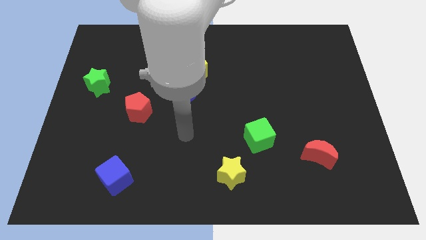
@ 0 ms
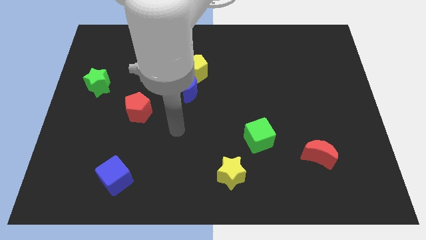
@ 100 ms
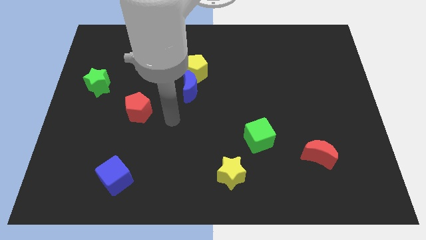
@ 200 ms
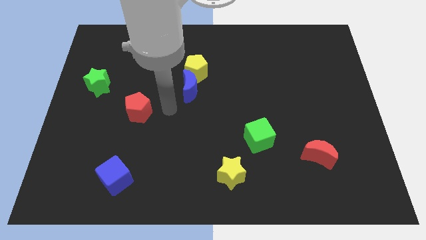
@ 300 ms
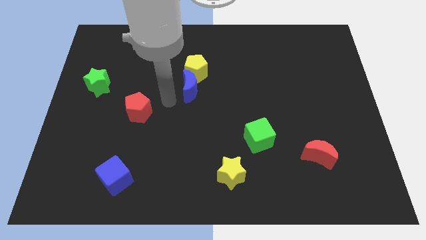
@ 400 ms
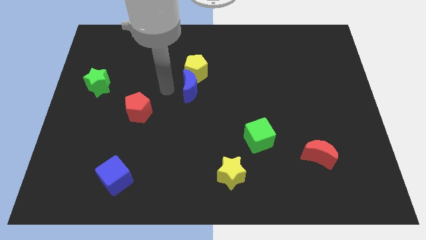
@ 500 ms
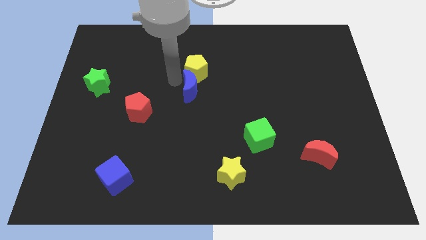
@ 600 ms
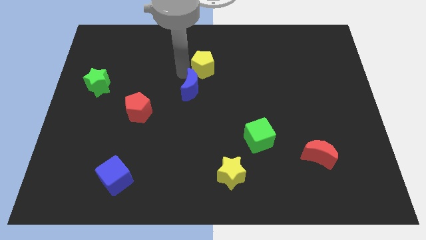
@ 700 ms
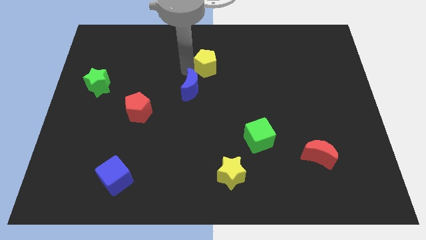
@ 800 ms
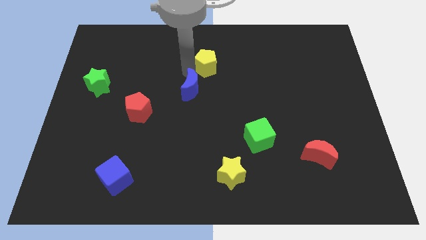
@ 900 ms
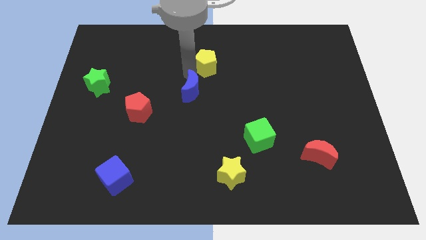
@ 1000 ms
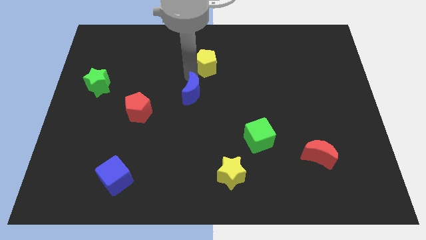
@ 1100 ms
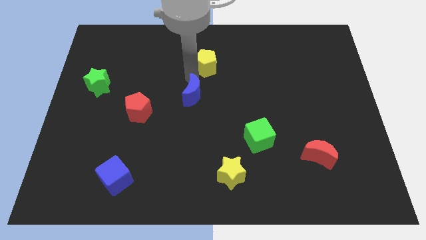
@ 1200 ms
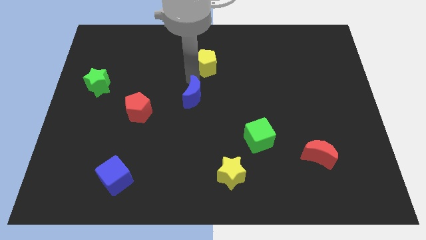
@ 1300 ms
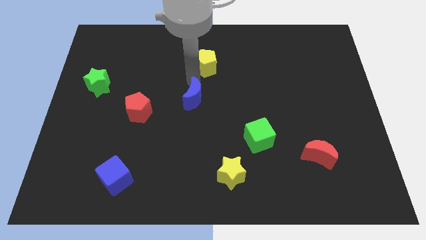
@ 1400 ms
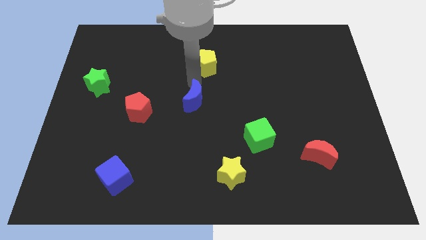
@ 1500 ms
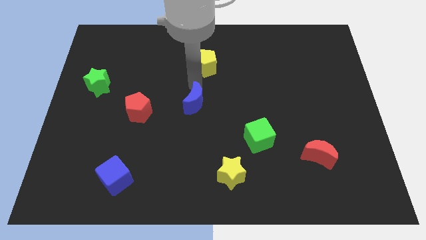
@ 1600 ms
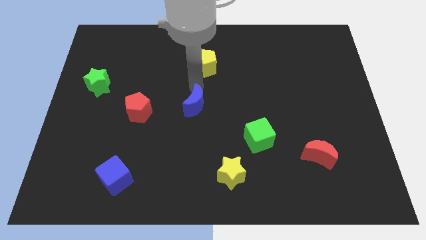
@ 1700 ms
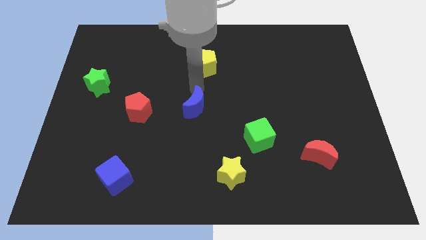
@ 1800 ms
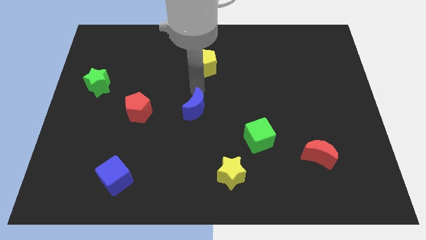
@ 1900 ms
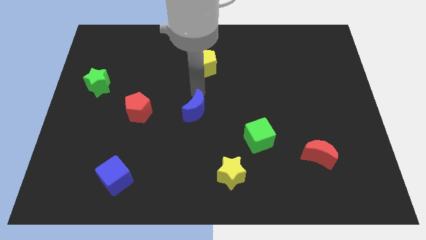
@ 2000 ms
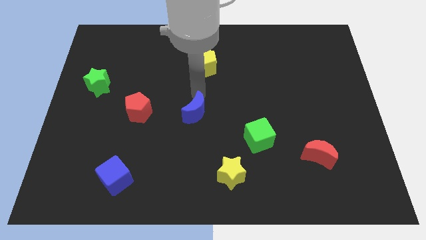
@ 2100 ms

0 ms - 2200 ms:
move the blue moon down a little

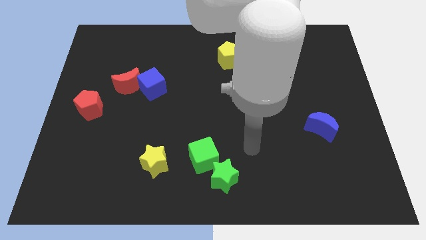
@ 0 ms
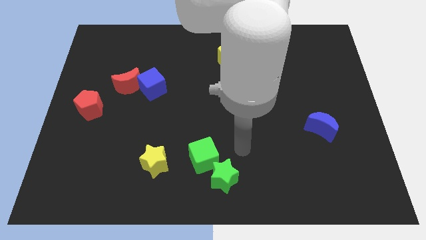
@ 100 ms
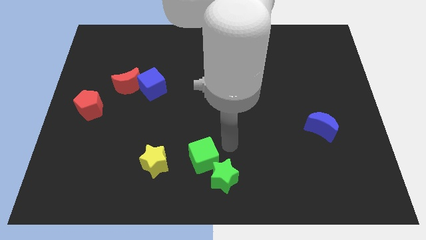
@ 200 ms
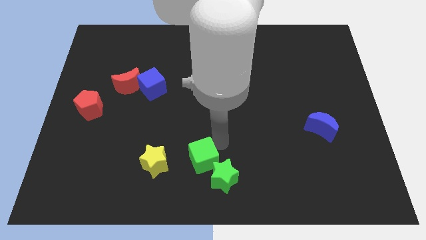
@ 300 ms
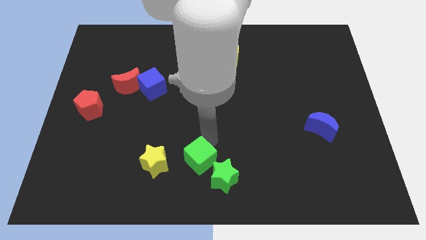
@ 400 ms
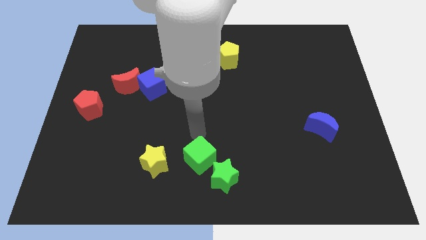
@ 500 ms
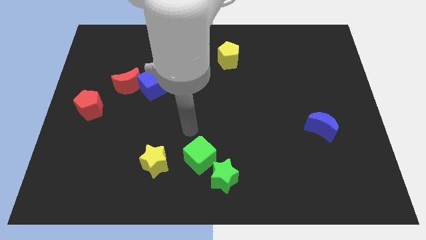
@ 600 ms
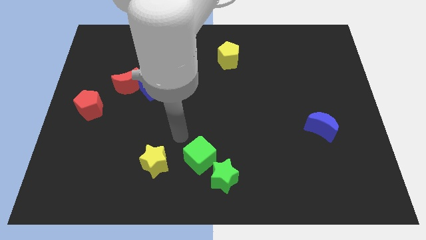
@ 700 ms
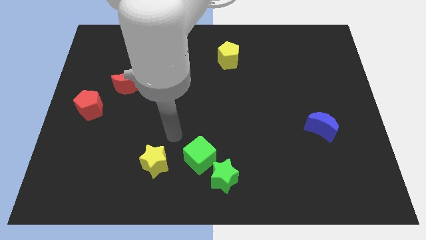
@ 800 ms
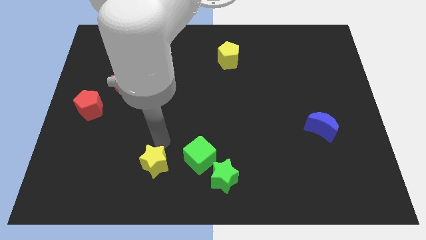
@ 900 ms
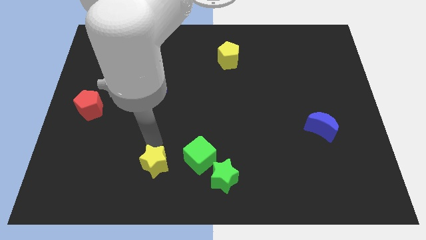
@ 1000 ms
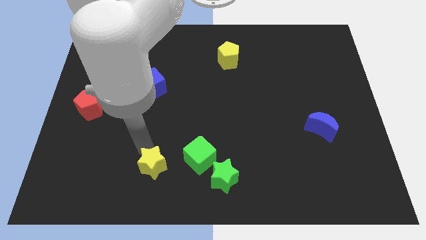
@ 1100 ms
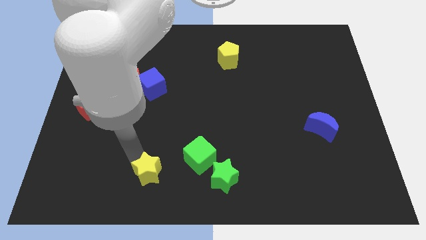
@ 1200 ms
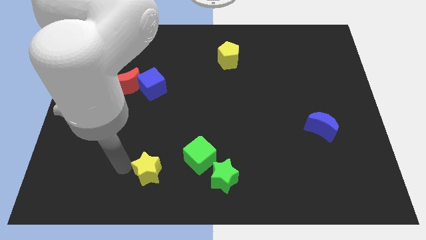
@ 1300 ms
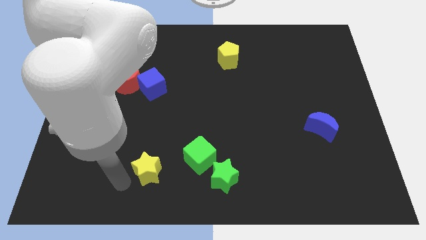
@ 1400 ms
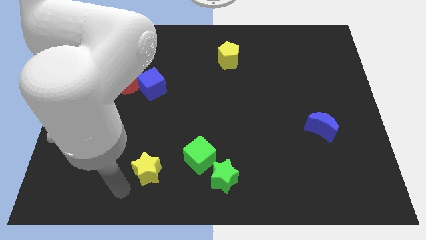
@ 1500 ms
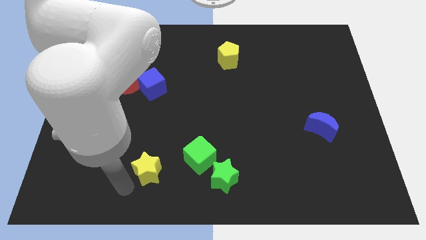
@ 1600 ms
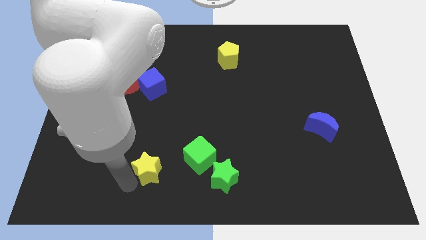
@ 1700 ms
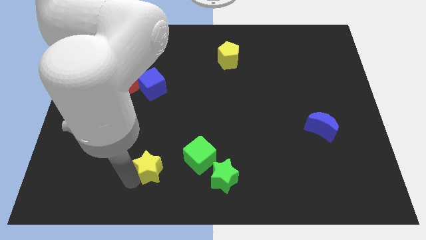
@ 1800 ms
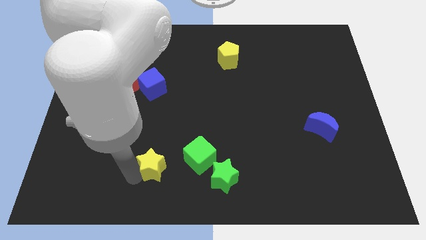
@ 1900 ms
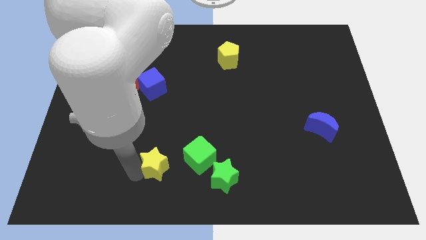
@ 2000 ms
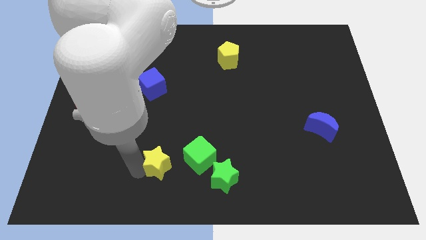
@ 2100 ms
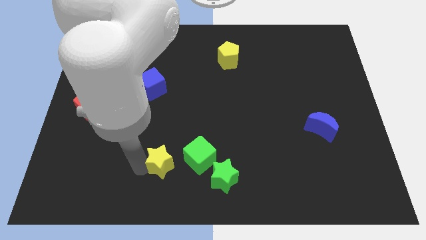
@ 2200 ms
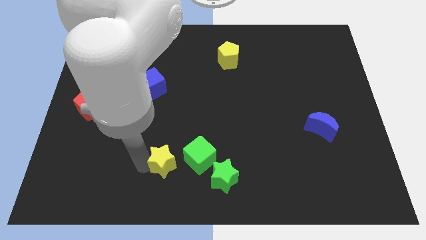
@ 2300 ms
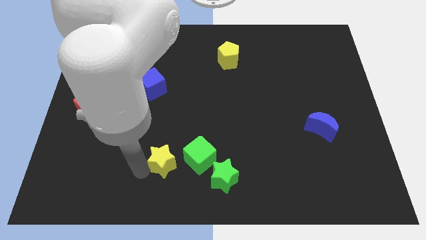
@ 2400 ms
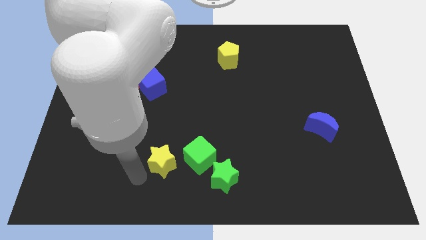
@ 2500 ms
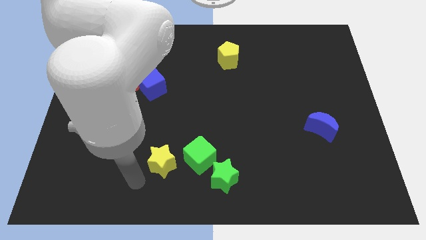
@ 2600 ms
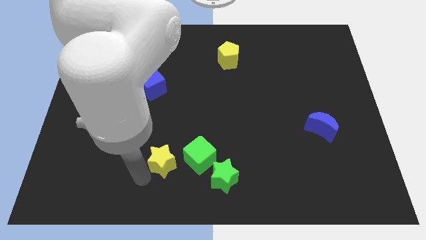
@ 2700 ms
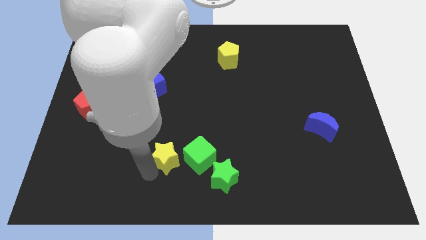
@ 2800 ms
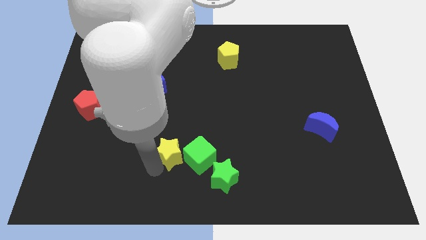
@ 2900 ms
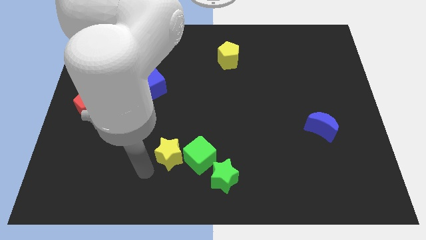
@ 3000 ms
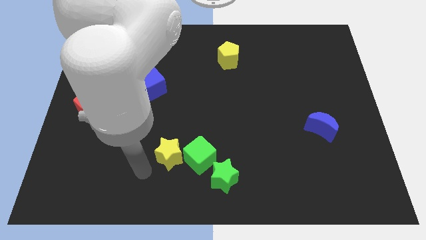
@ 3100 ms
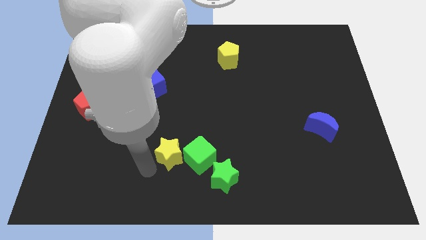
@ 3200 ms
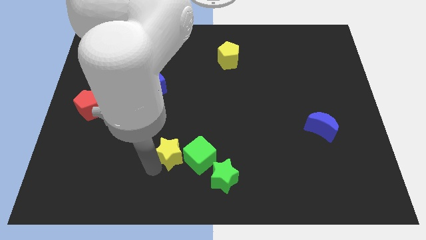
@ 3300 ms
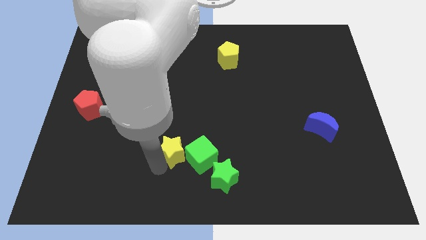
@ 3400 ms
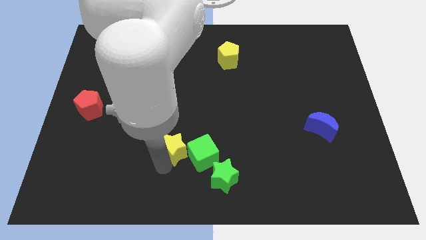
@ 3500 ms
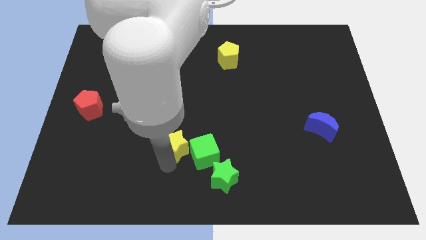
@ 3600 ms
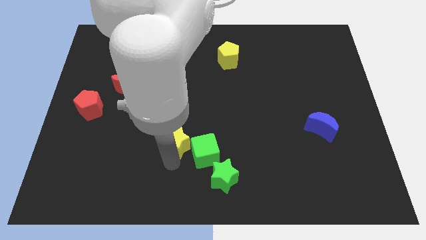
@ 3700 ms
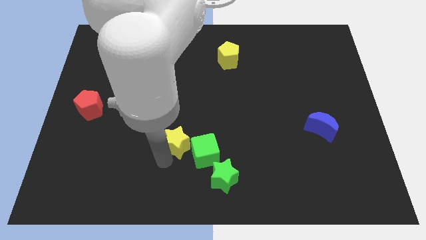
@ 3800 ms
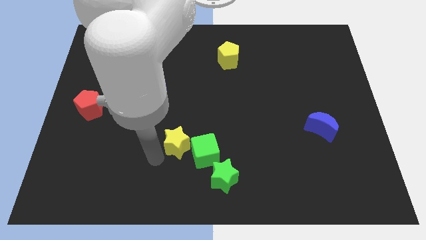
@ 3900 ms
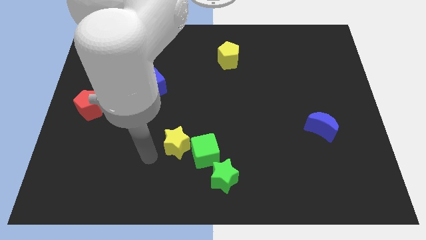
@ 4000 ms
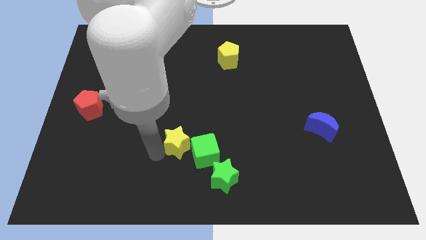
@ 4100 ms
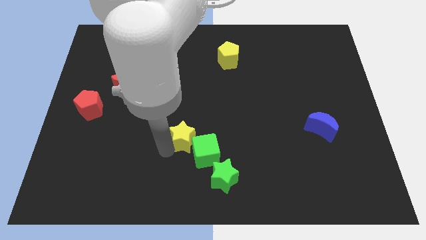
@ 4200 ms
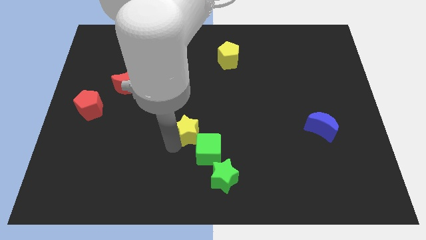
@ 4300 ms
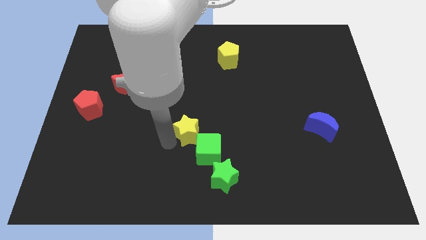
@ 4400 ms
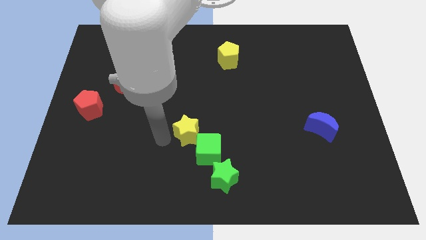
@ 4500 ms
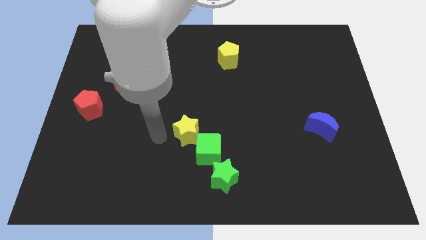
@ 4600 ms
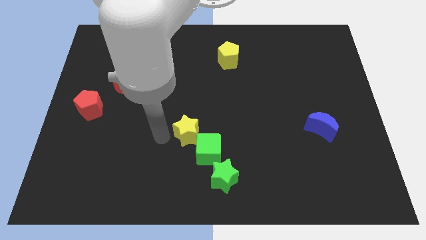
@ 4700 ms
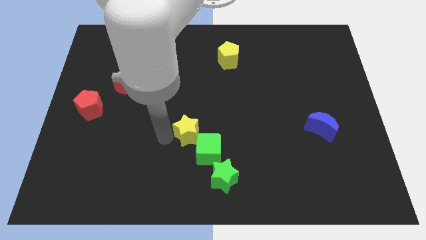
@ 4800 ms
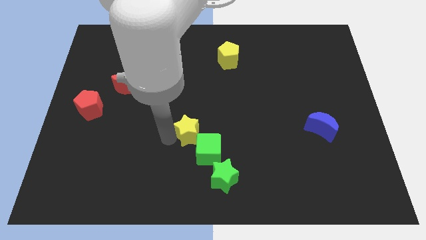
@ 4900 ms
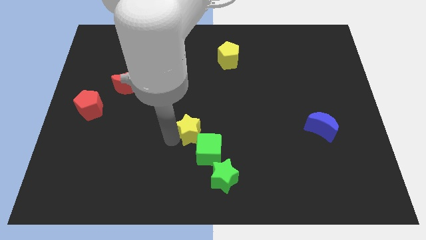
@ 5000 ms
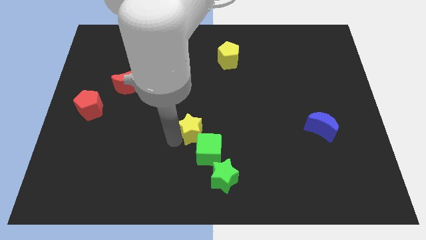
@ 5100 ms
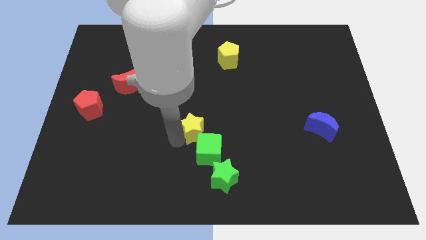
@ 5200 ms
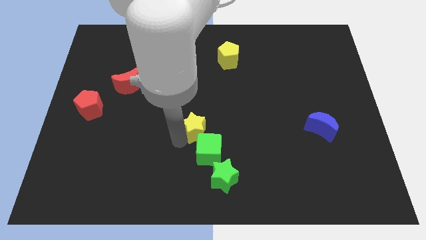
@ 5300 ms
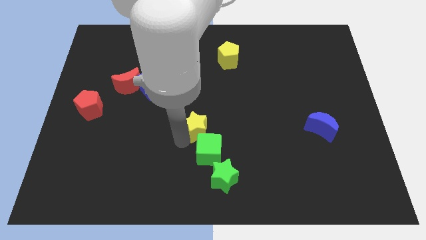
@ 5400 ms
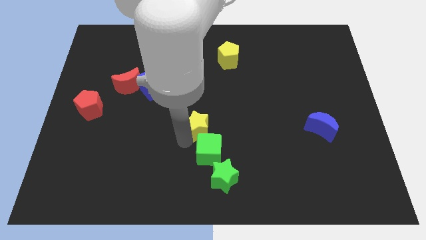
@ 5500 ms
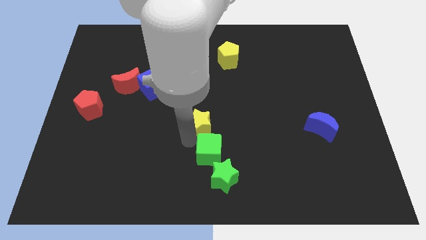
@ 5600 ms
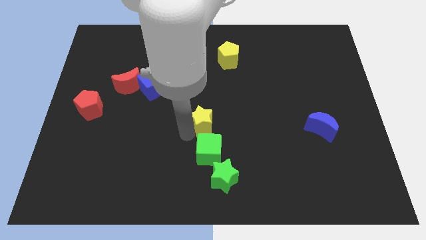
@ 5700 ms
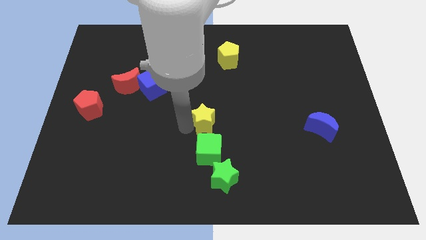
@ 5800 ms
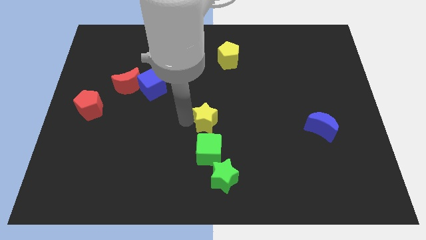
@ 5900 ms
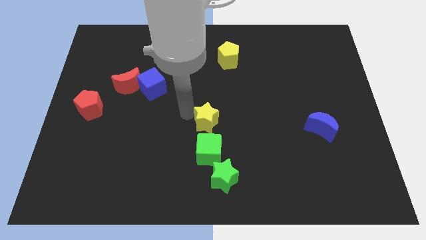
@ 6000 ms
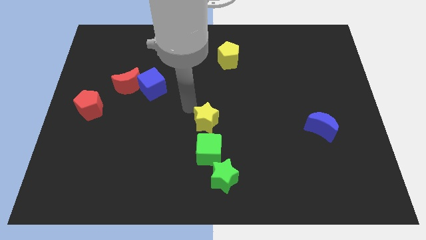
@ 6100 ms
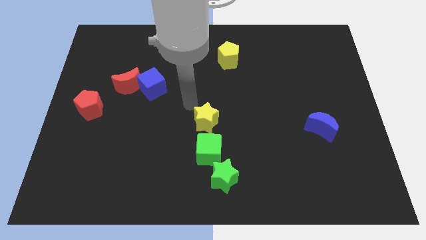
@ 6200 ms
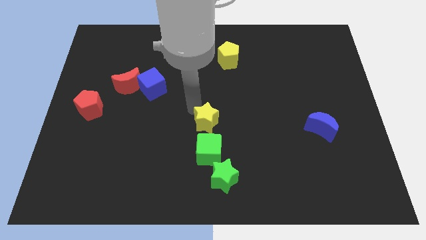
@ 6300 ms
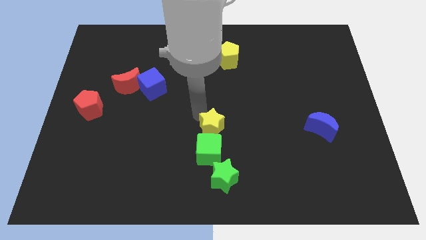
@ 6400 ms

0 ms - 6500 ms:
move the yellow star to the right a little bit
